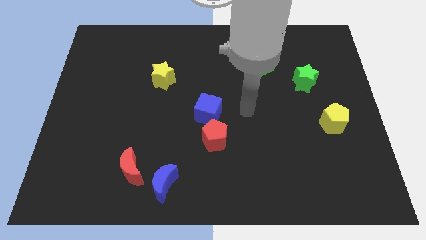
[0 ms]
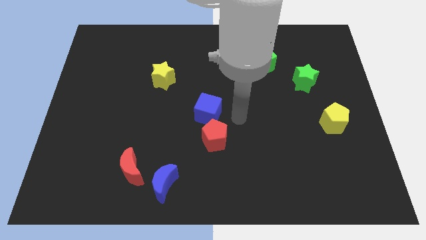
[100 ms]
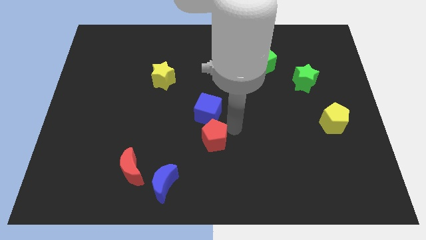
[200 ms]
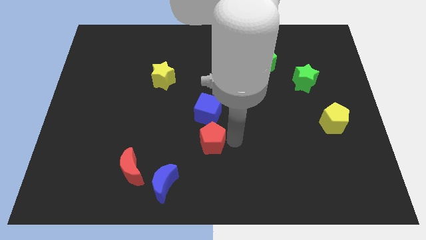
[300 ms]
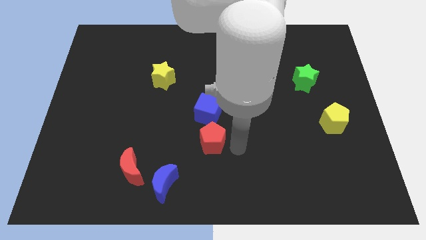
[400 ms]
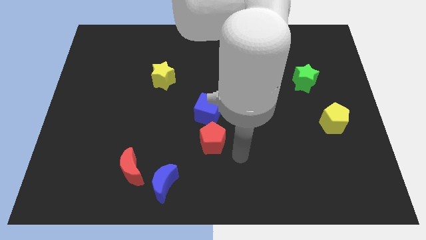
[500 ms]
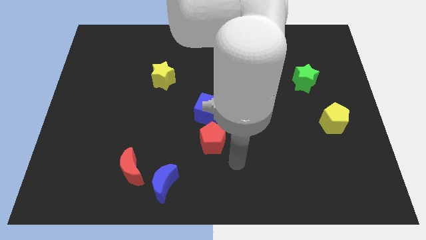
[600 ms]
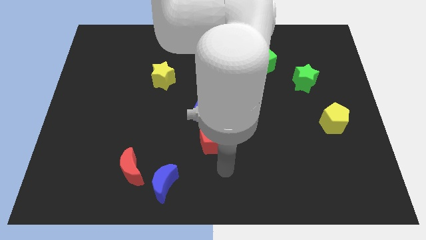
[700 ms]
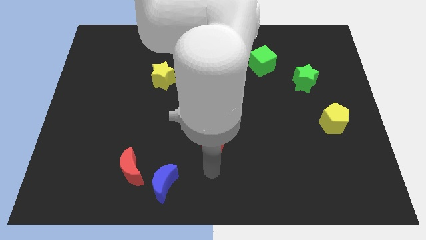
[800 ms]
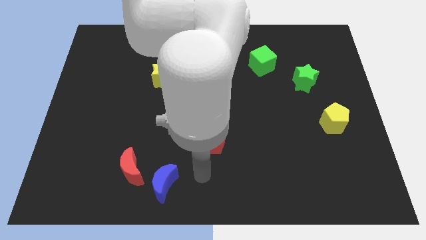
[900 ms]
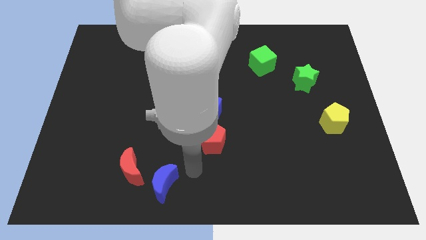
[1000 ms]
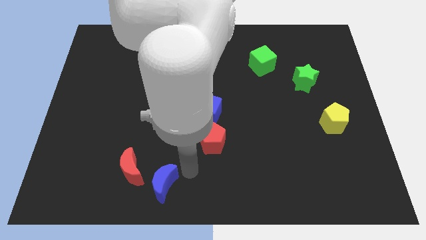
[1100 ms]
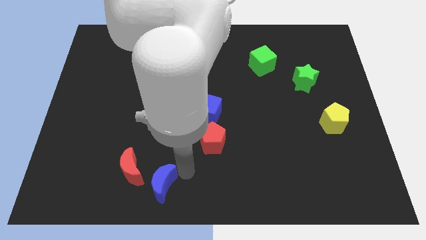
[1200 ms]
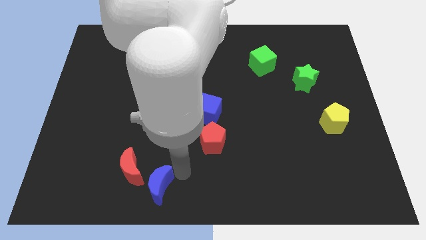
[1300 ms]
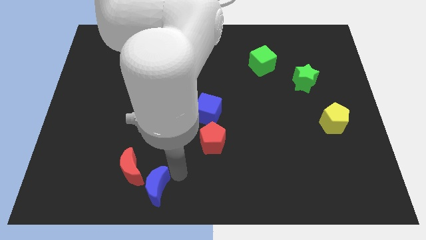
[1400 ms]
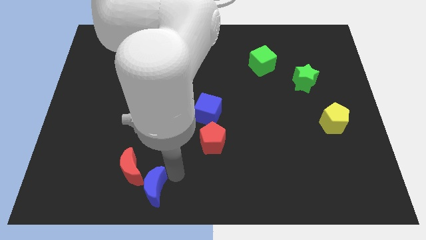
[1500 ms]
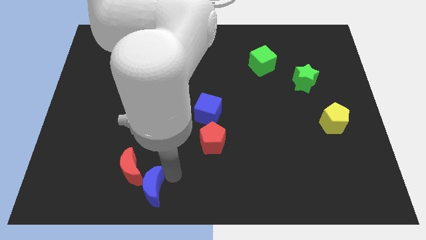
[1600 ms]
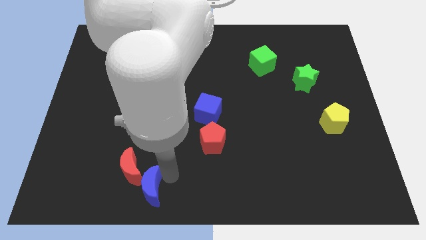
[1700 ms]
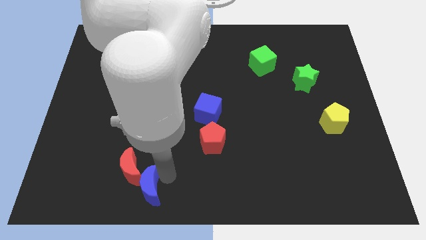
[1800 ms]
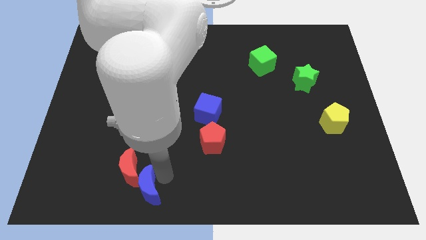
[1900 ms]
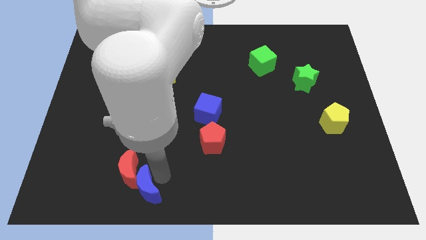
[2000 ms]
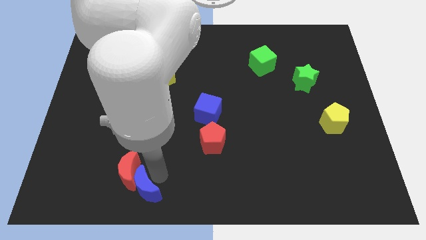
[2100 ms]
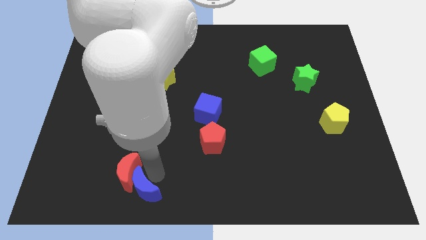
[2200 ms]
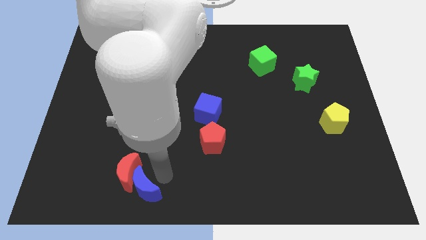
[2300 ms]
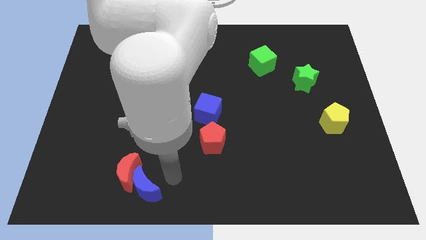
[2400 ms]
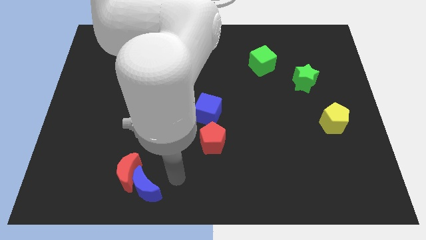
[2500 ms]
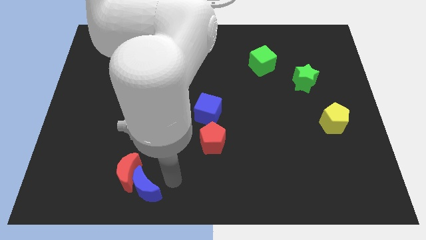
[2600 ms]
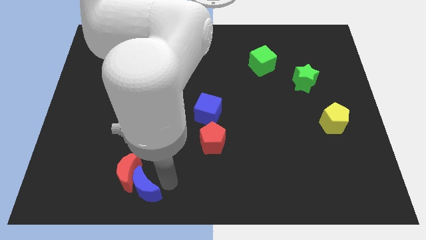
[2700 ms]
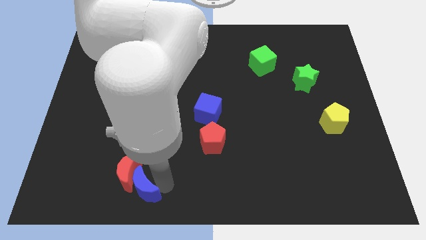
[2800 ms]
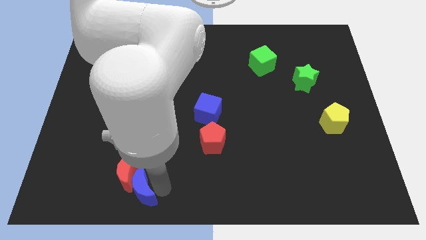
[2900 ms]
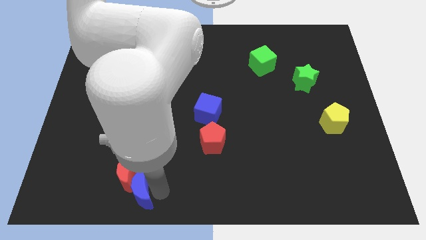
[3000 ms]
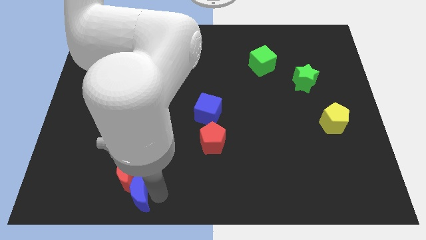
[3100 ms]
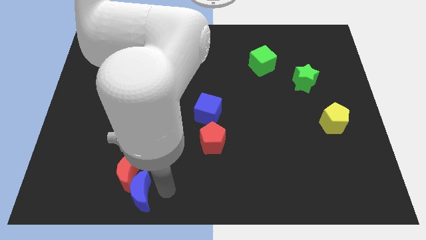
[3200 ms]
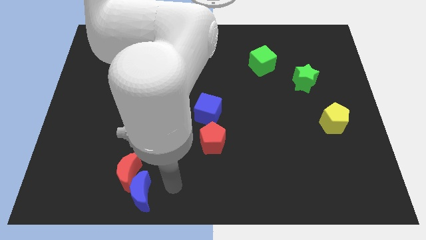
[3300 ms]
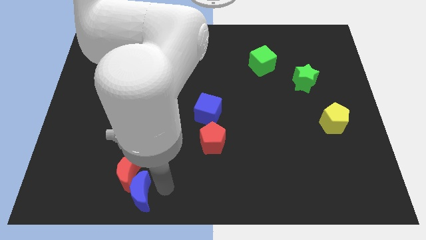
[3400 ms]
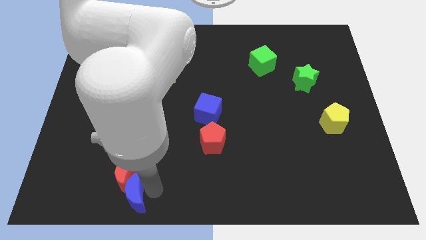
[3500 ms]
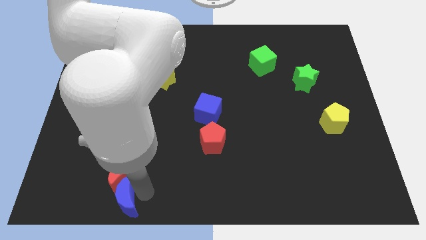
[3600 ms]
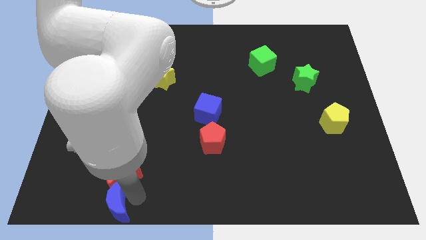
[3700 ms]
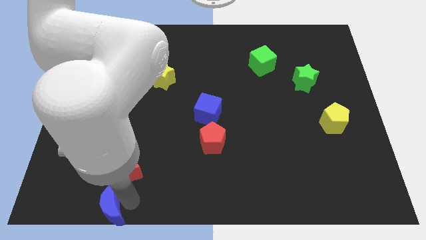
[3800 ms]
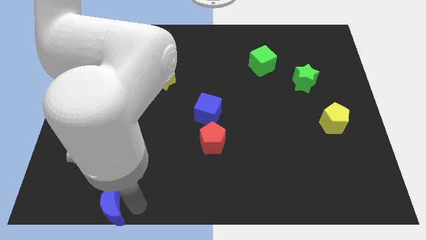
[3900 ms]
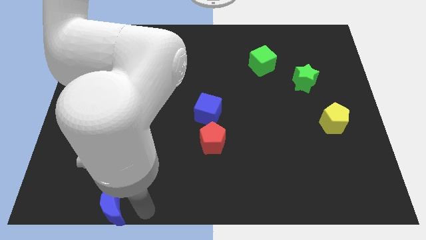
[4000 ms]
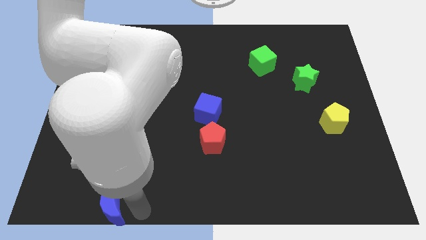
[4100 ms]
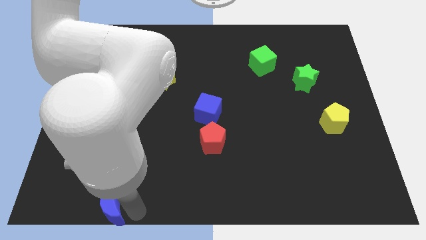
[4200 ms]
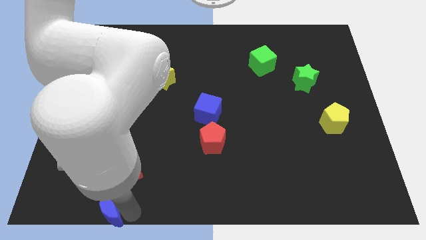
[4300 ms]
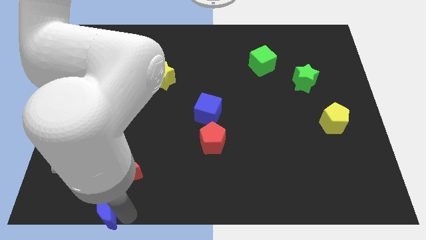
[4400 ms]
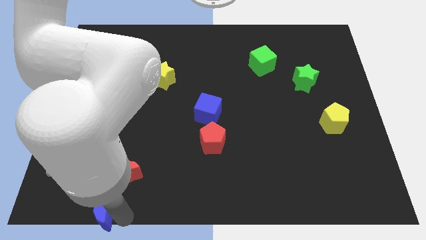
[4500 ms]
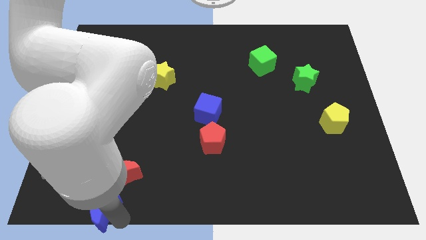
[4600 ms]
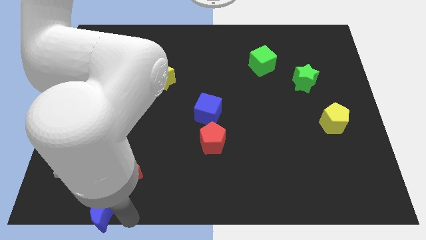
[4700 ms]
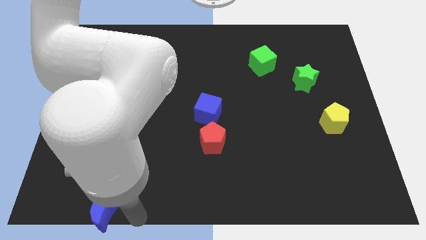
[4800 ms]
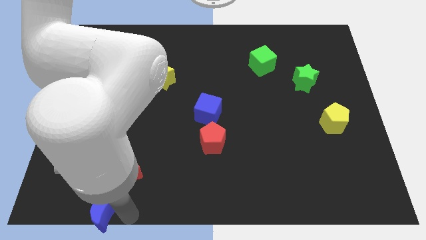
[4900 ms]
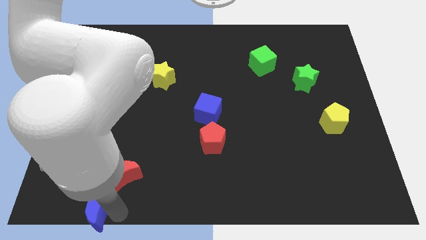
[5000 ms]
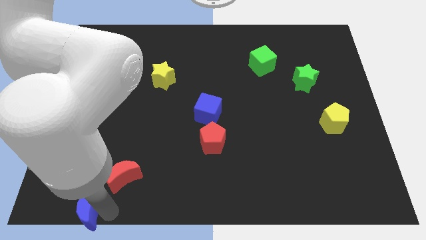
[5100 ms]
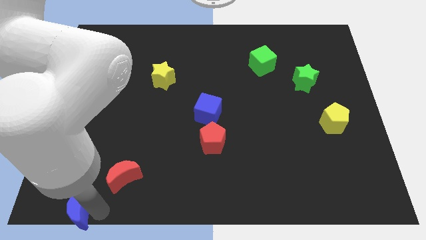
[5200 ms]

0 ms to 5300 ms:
push the blue moon to the lower left corner

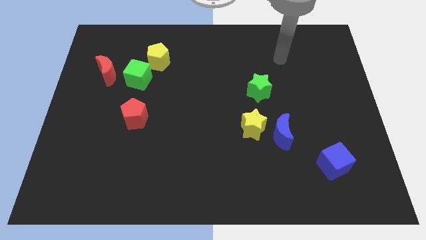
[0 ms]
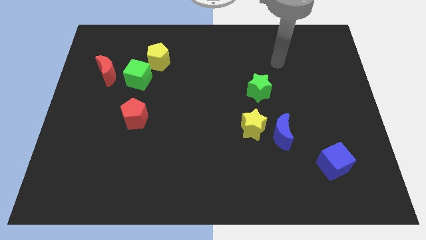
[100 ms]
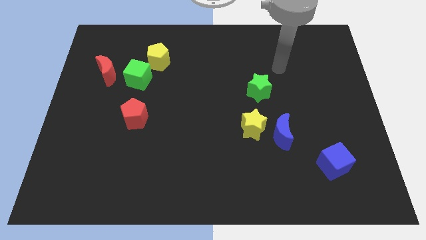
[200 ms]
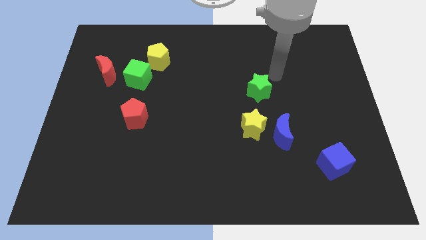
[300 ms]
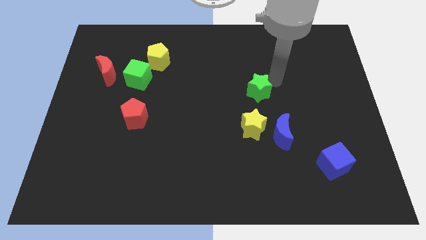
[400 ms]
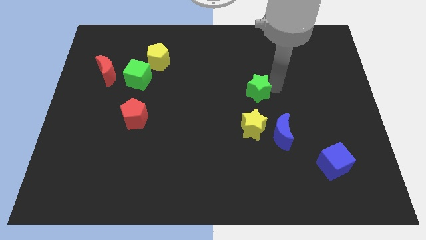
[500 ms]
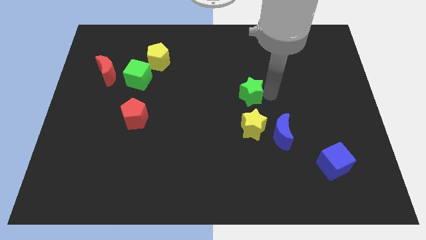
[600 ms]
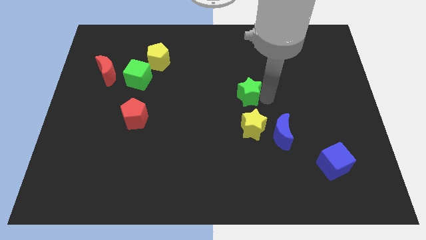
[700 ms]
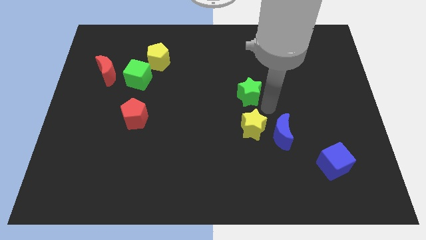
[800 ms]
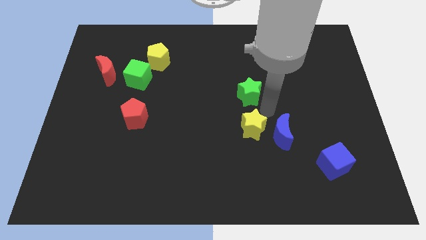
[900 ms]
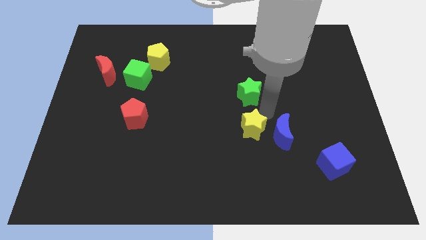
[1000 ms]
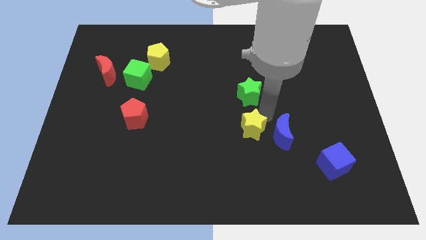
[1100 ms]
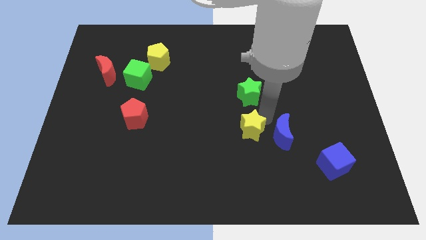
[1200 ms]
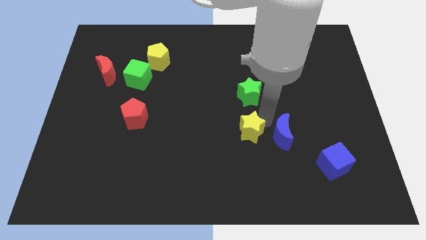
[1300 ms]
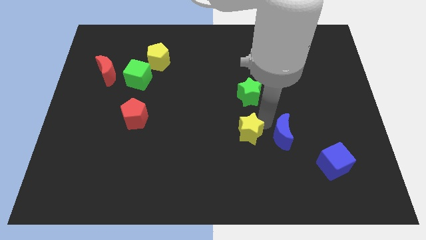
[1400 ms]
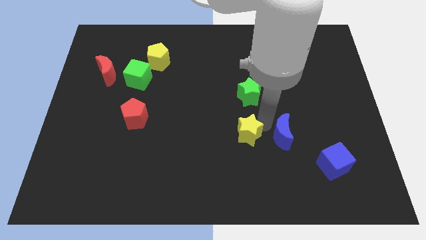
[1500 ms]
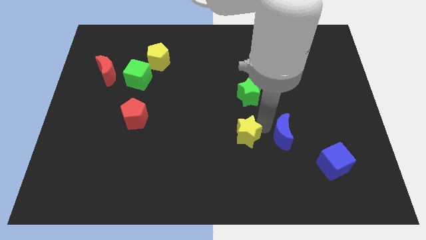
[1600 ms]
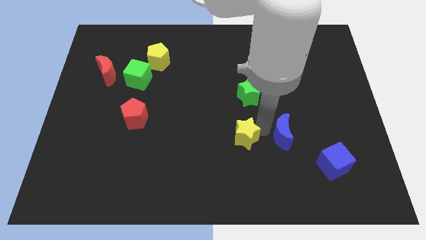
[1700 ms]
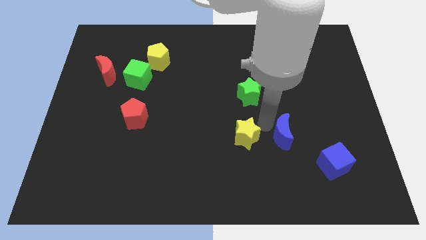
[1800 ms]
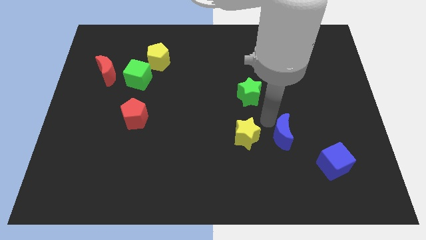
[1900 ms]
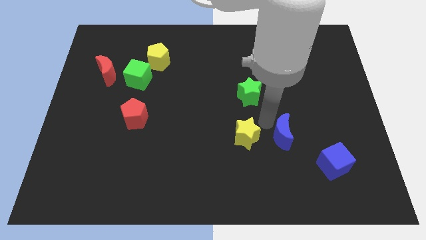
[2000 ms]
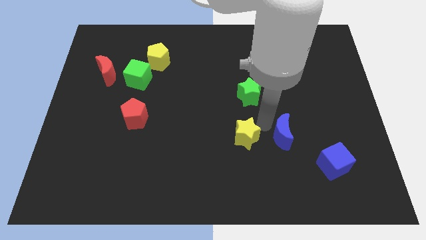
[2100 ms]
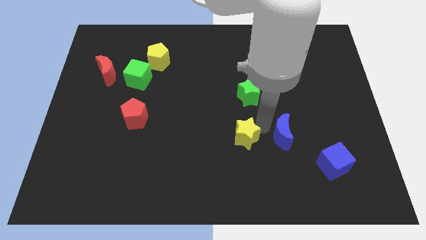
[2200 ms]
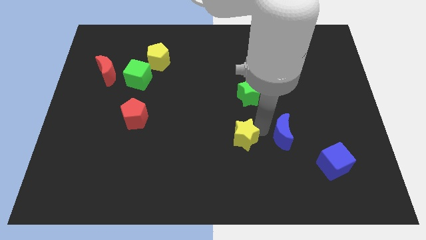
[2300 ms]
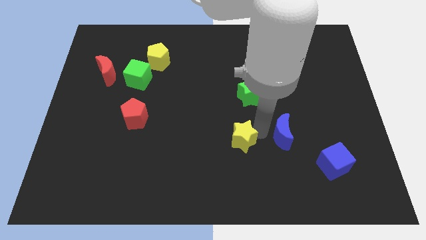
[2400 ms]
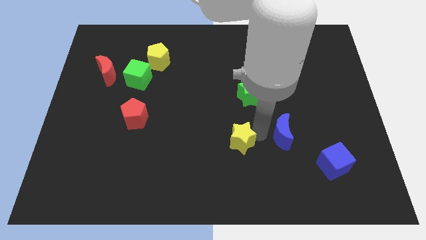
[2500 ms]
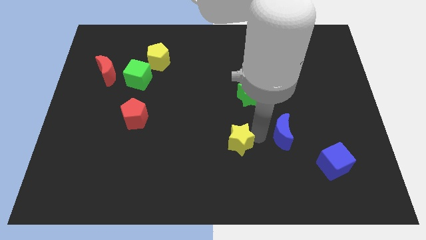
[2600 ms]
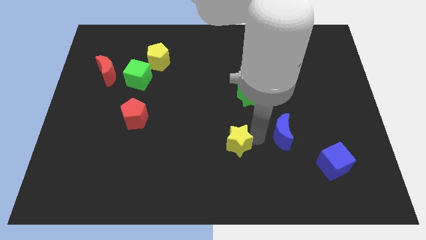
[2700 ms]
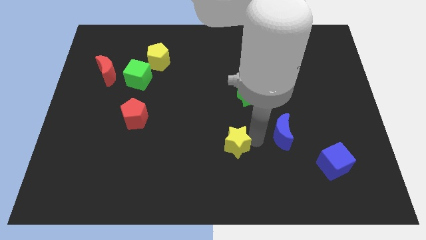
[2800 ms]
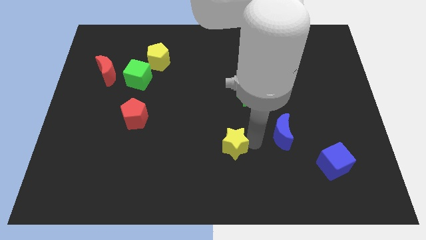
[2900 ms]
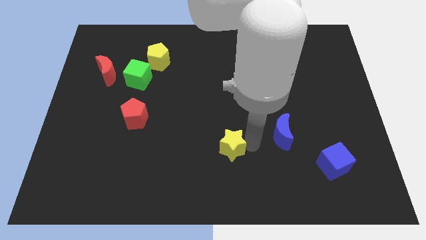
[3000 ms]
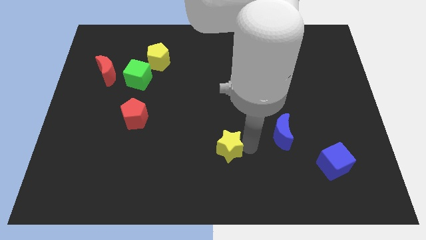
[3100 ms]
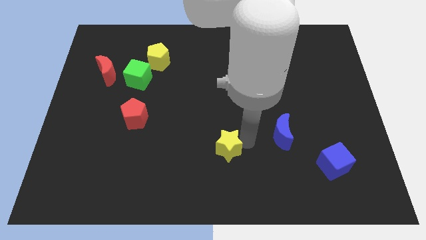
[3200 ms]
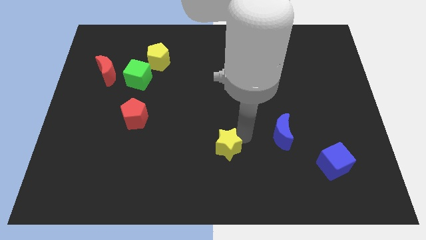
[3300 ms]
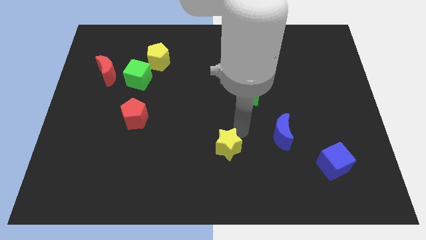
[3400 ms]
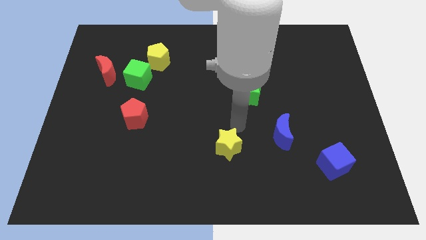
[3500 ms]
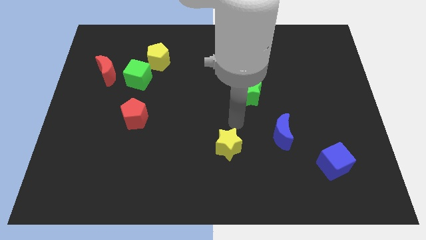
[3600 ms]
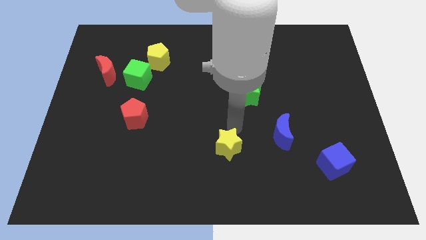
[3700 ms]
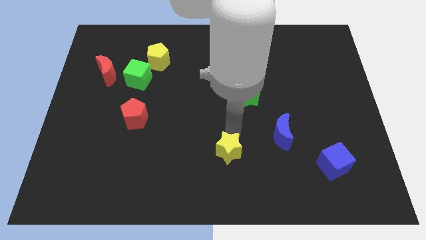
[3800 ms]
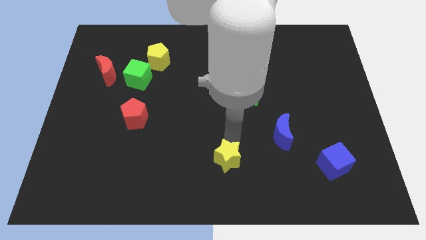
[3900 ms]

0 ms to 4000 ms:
push the yellow star to the bottom
